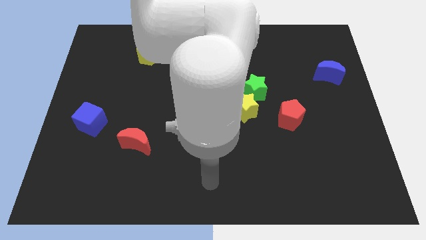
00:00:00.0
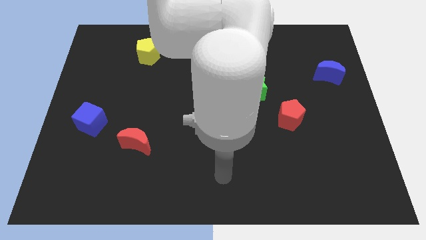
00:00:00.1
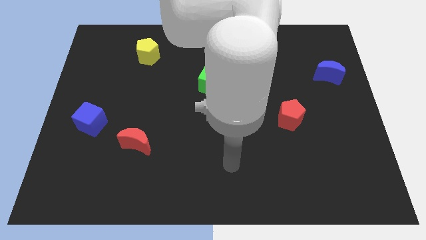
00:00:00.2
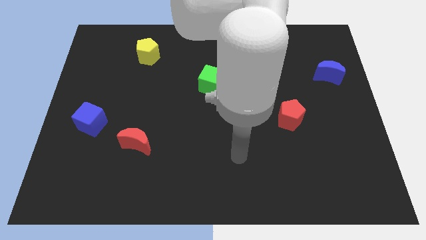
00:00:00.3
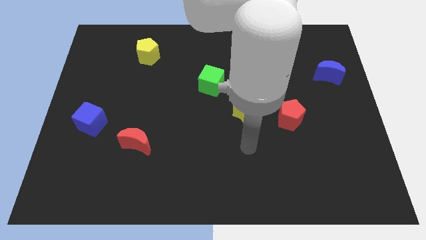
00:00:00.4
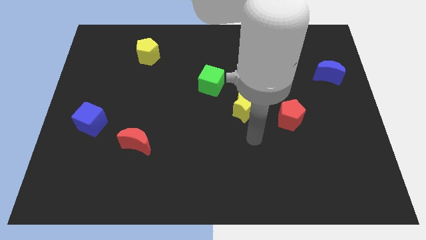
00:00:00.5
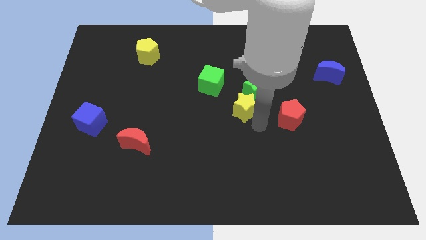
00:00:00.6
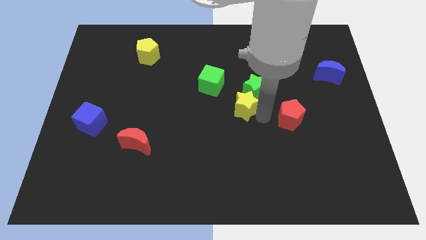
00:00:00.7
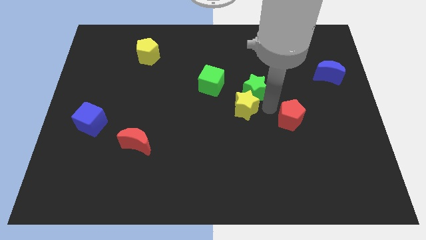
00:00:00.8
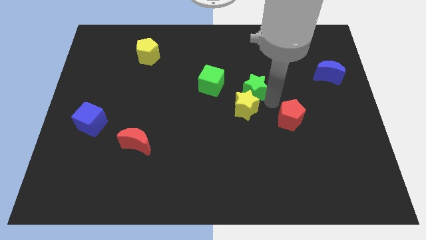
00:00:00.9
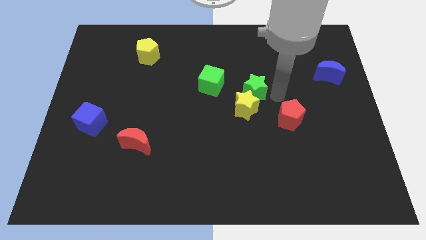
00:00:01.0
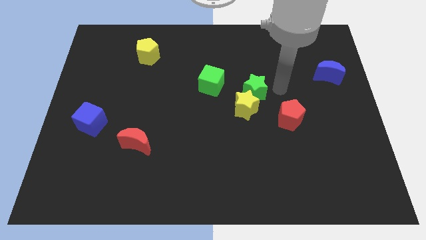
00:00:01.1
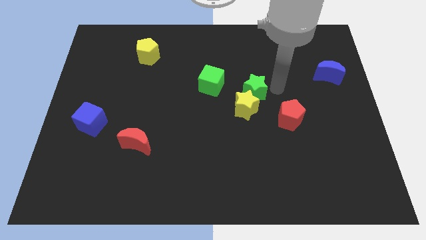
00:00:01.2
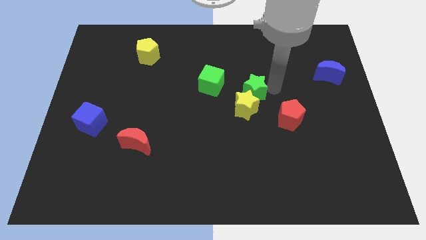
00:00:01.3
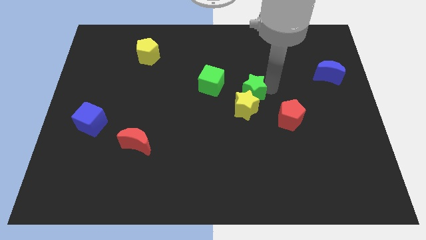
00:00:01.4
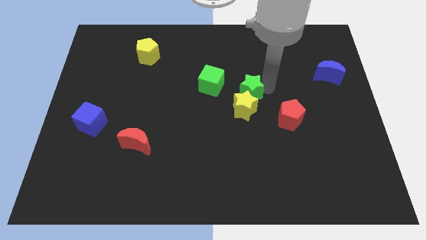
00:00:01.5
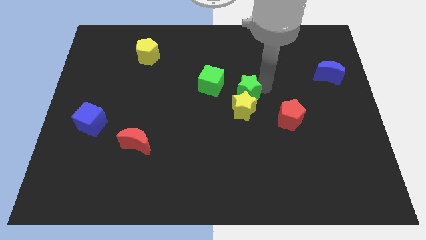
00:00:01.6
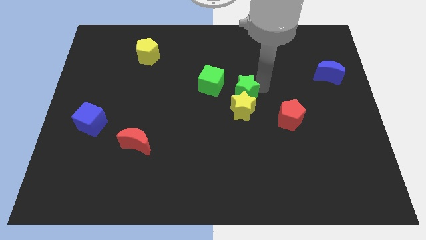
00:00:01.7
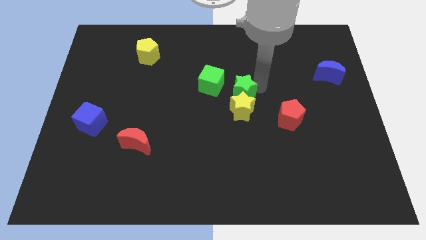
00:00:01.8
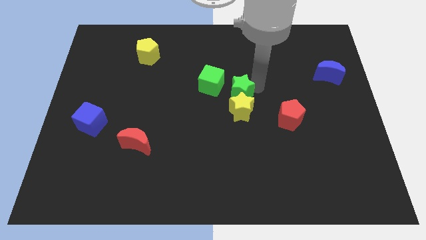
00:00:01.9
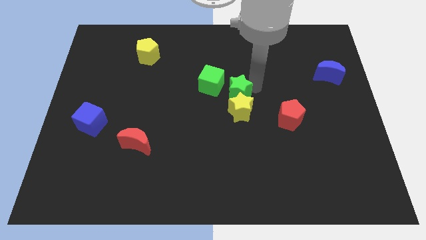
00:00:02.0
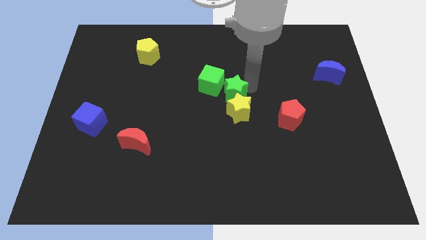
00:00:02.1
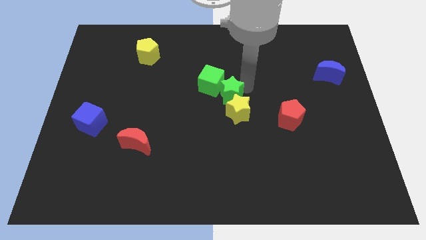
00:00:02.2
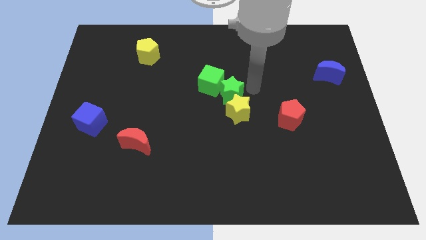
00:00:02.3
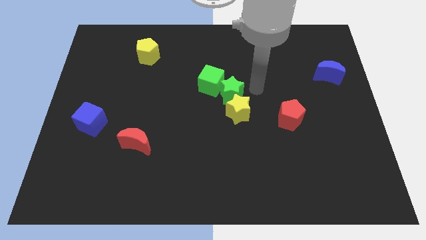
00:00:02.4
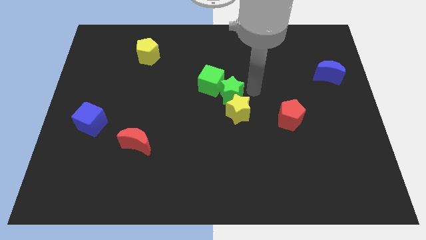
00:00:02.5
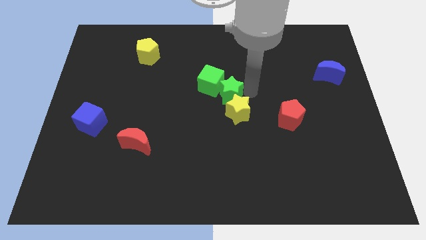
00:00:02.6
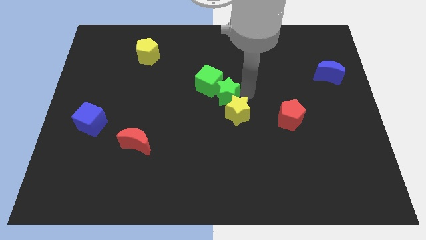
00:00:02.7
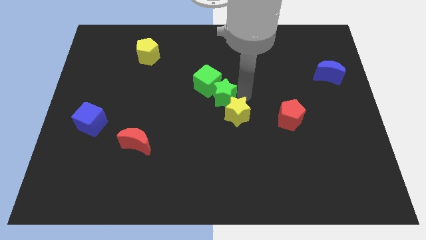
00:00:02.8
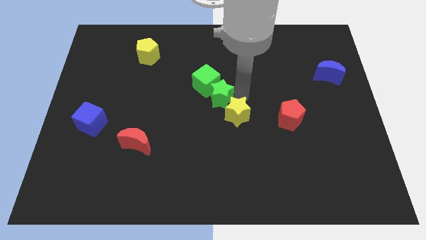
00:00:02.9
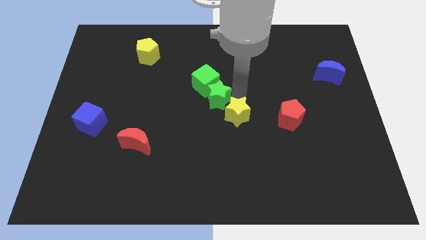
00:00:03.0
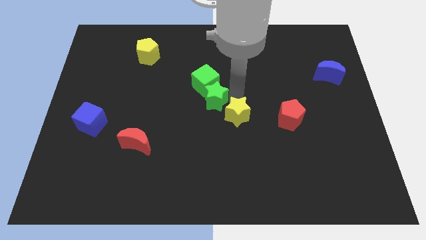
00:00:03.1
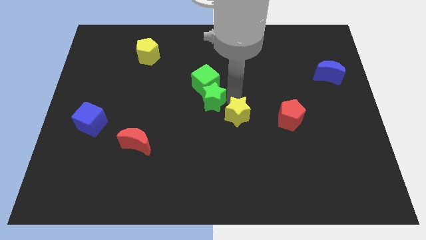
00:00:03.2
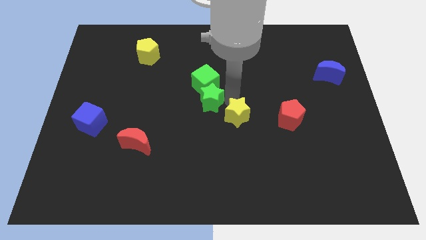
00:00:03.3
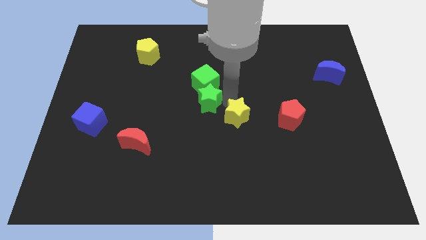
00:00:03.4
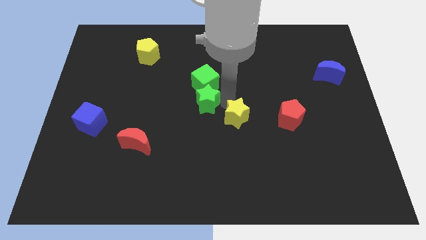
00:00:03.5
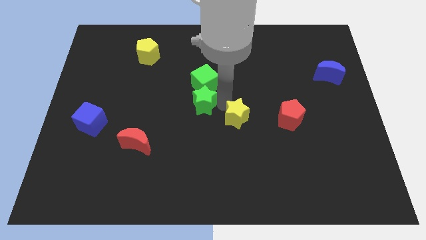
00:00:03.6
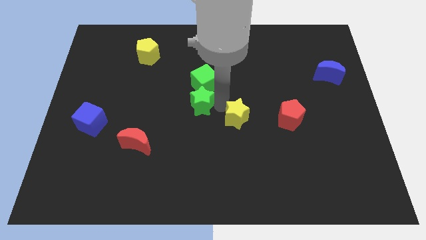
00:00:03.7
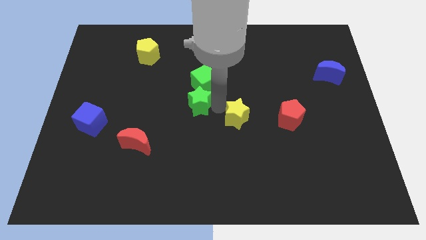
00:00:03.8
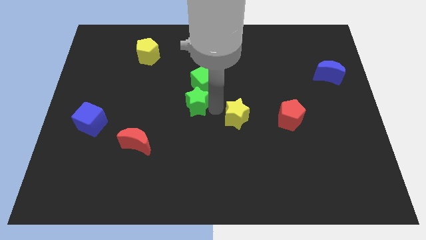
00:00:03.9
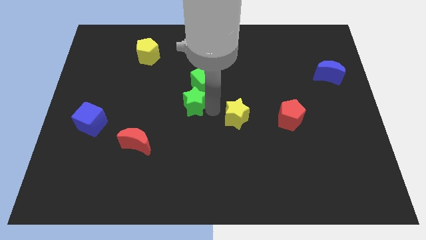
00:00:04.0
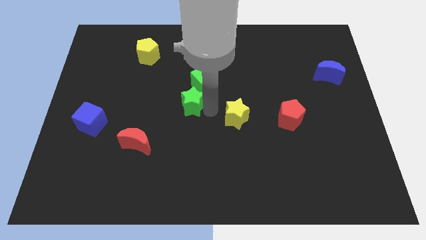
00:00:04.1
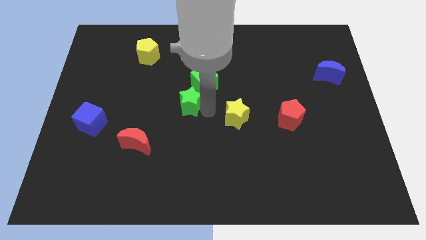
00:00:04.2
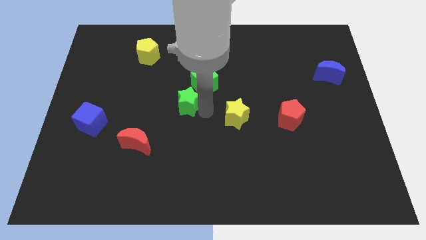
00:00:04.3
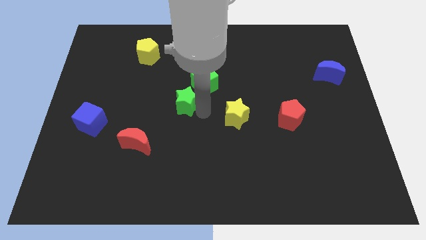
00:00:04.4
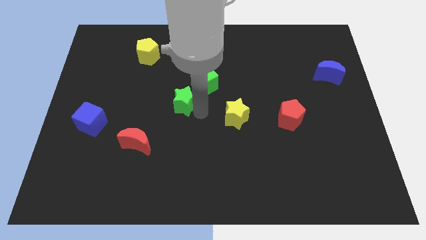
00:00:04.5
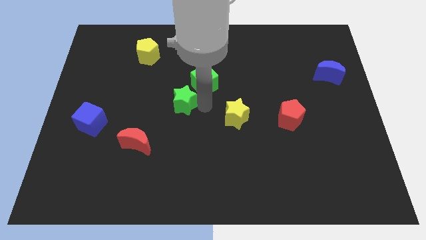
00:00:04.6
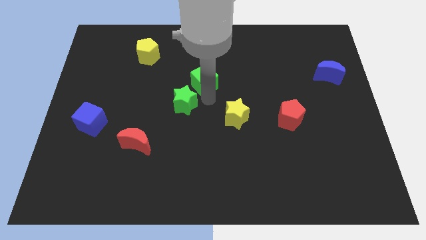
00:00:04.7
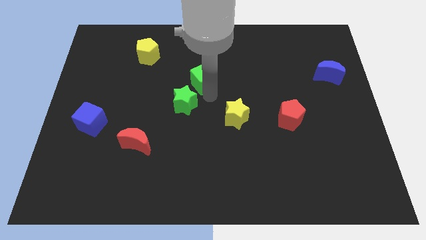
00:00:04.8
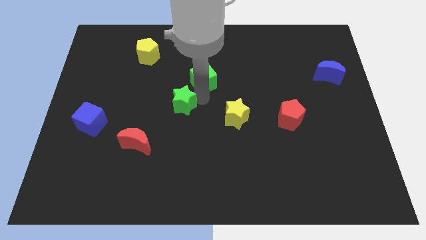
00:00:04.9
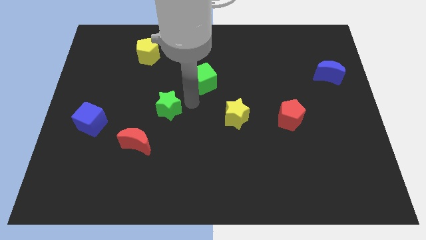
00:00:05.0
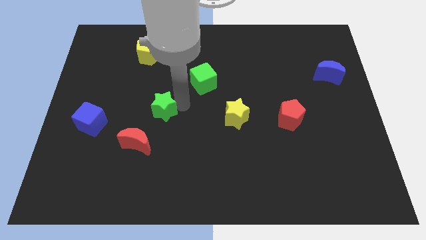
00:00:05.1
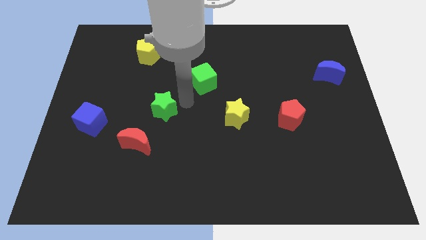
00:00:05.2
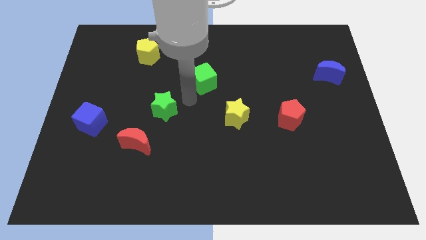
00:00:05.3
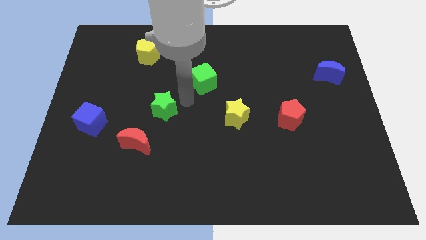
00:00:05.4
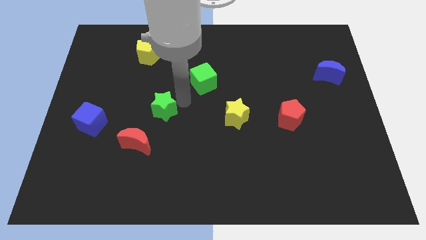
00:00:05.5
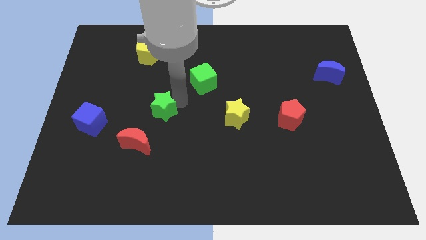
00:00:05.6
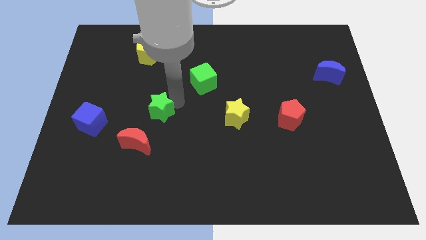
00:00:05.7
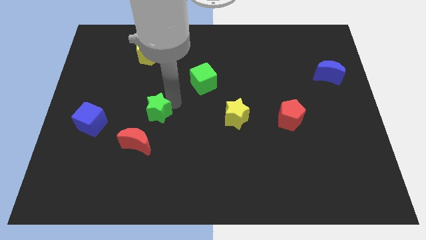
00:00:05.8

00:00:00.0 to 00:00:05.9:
slide the green star just right of the blue cube

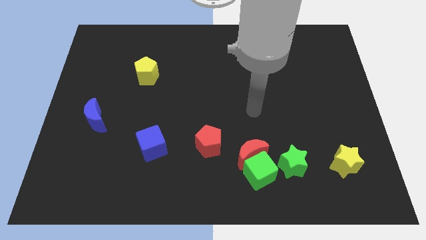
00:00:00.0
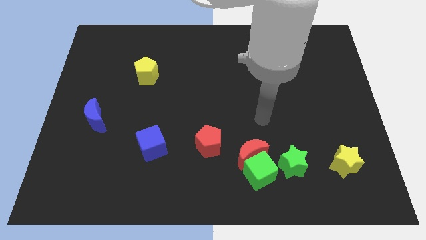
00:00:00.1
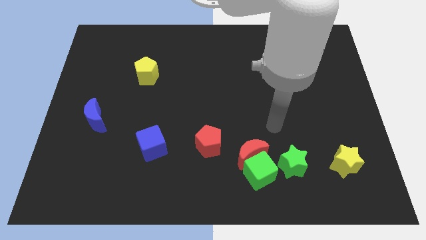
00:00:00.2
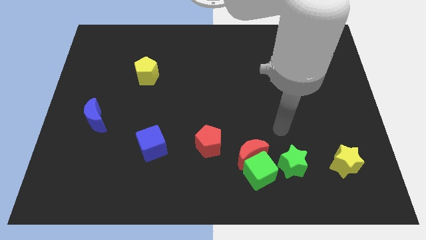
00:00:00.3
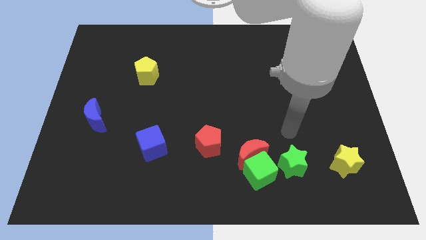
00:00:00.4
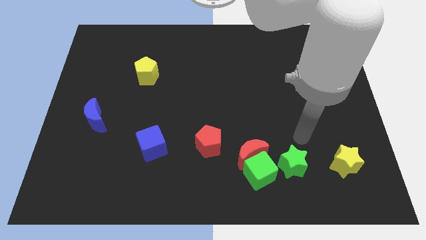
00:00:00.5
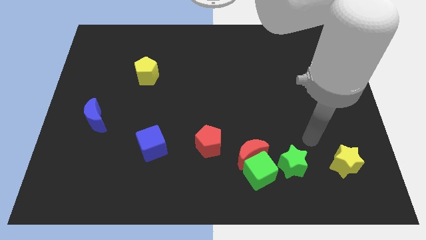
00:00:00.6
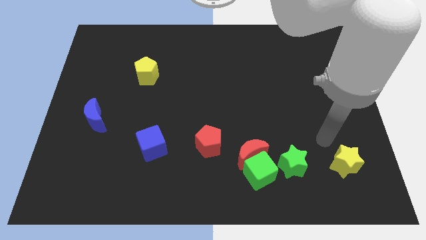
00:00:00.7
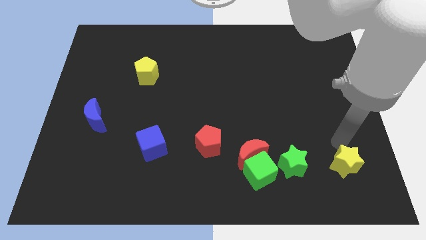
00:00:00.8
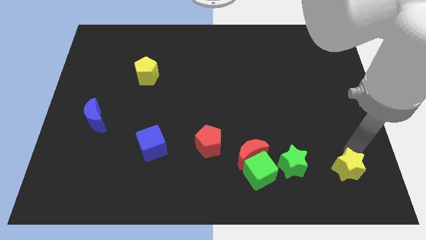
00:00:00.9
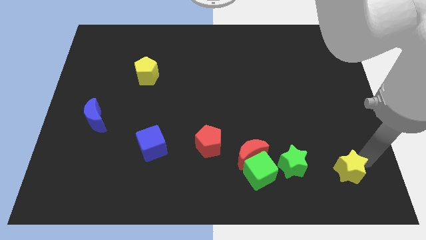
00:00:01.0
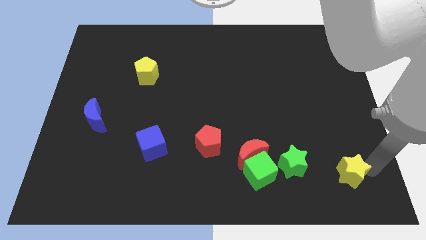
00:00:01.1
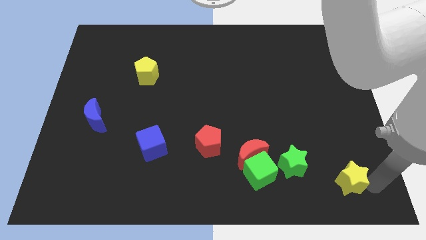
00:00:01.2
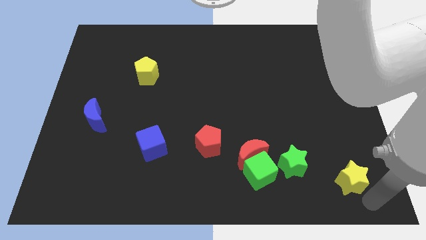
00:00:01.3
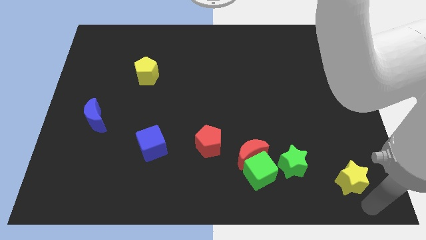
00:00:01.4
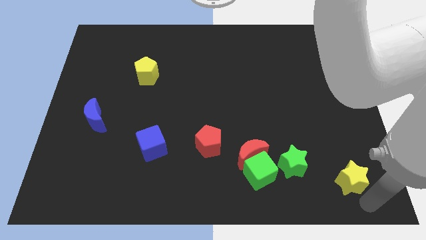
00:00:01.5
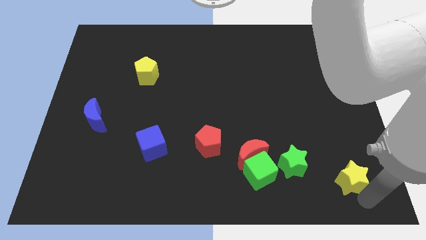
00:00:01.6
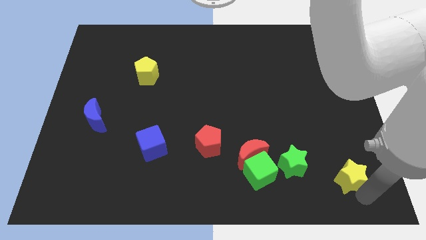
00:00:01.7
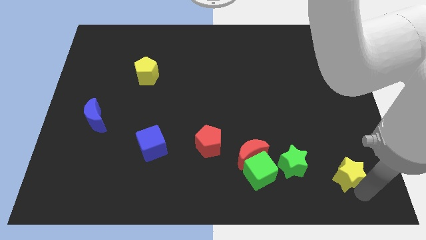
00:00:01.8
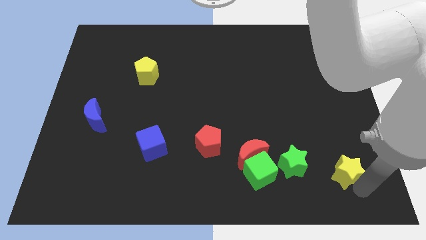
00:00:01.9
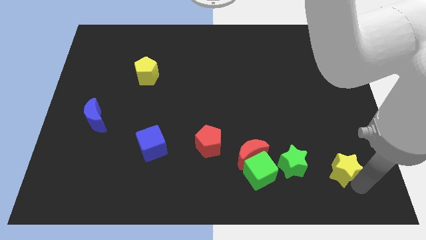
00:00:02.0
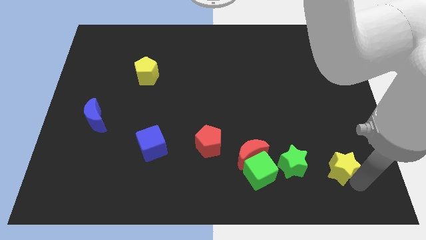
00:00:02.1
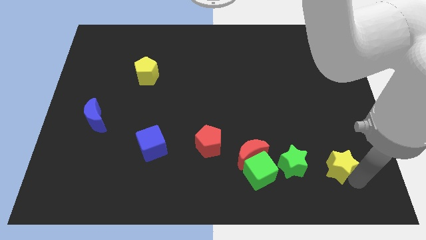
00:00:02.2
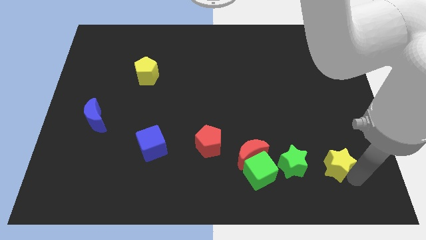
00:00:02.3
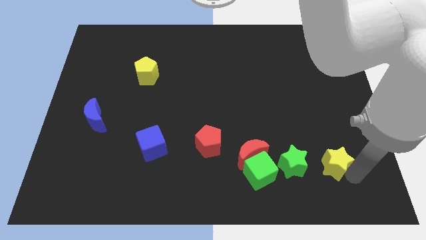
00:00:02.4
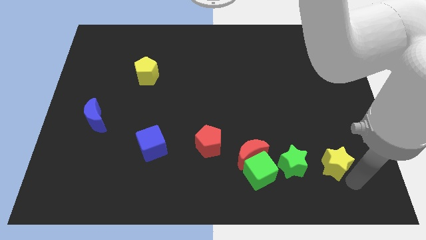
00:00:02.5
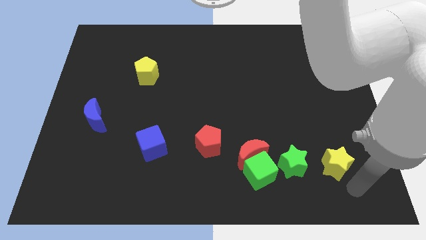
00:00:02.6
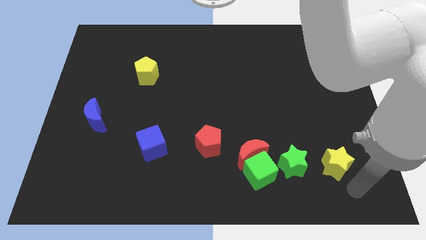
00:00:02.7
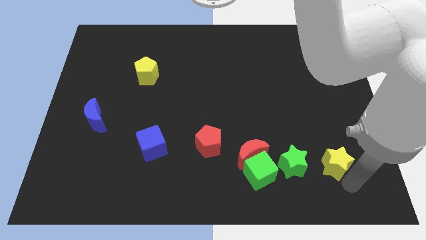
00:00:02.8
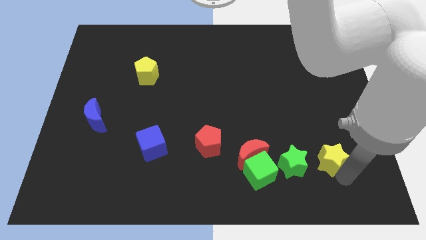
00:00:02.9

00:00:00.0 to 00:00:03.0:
move the yellow star diagonally up and to the right of the green star
